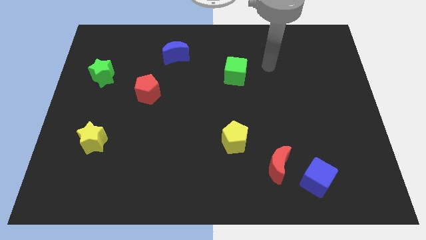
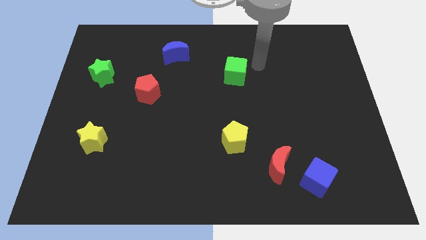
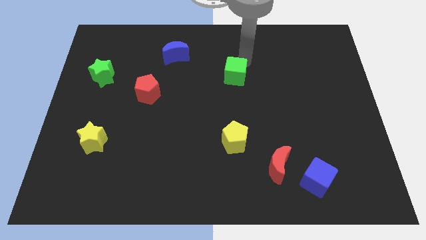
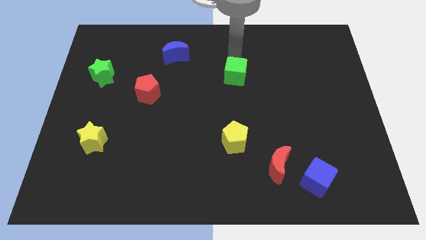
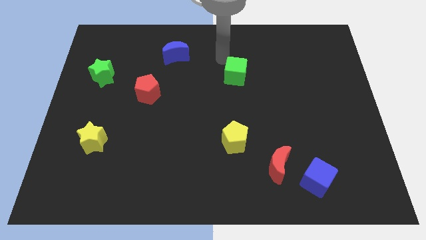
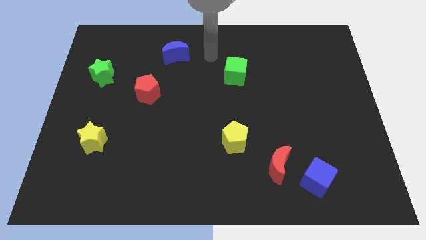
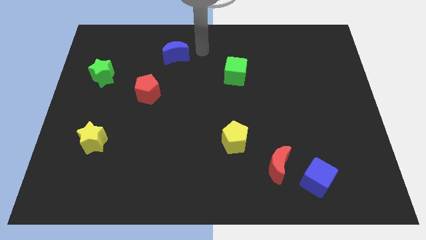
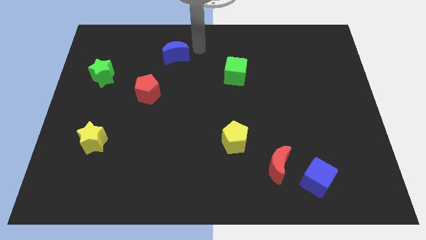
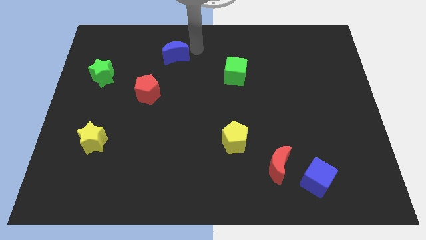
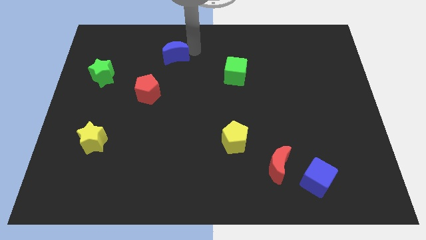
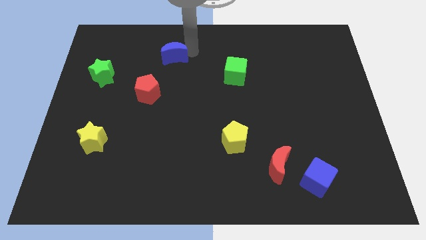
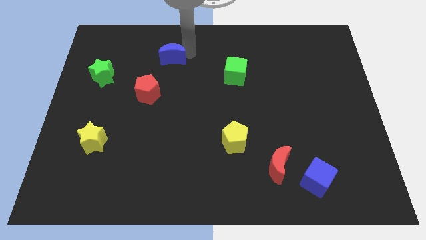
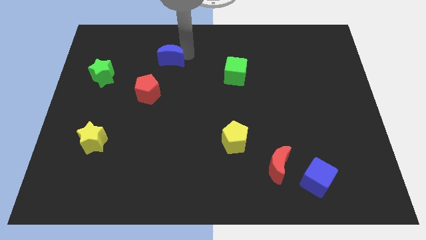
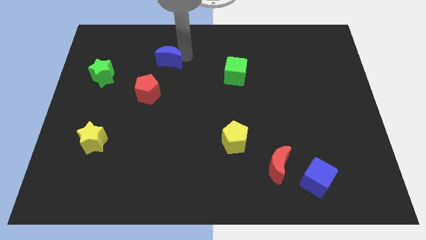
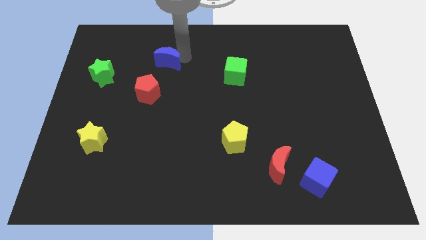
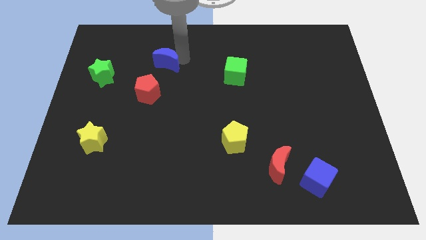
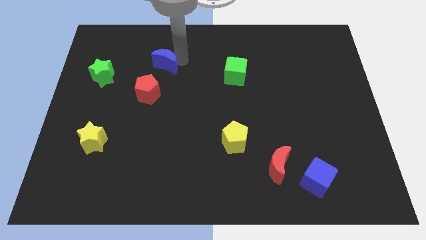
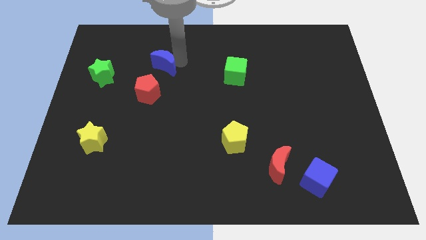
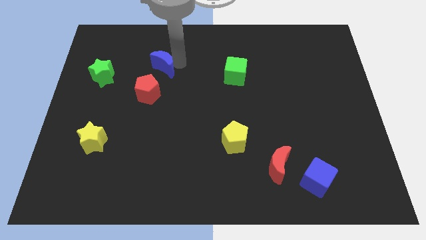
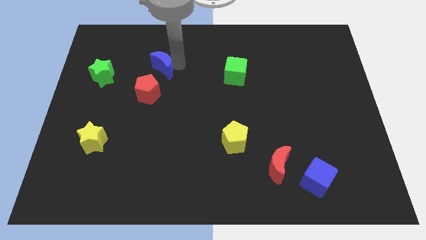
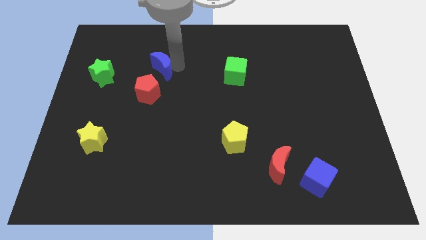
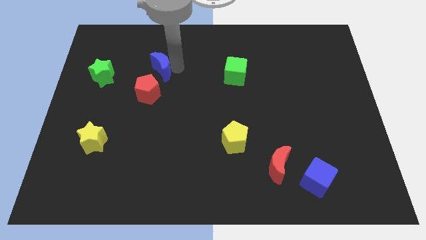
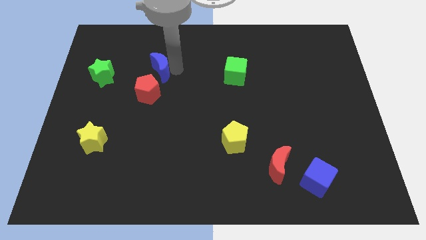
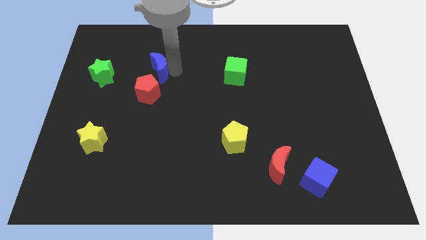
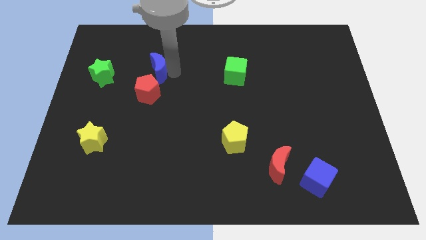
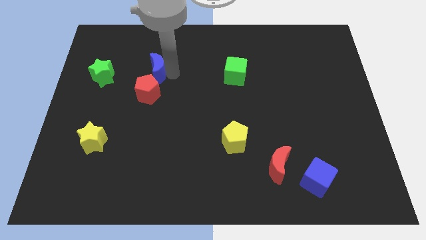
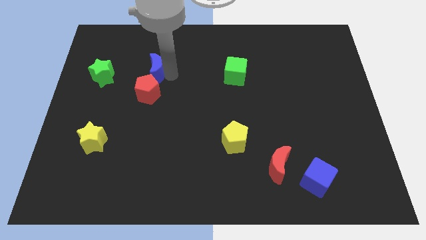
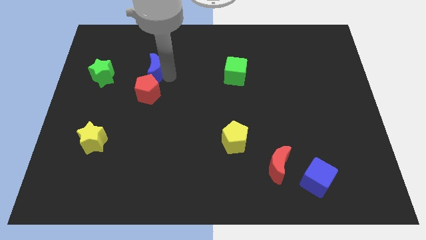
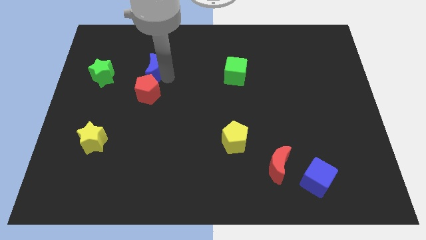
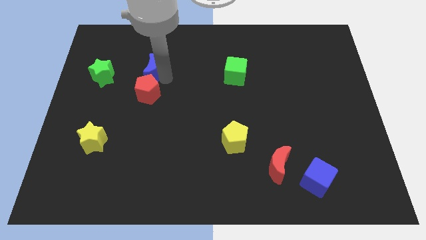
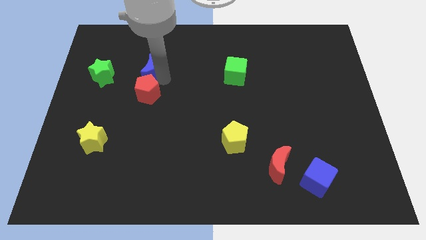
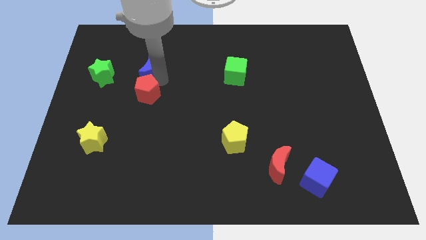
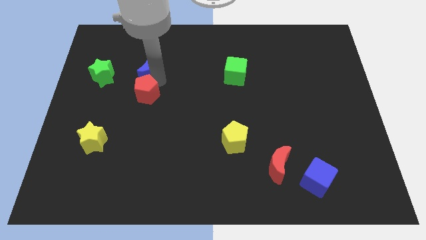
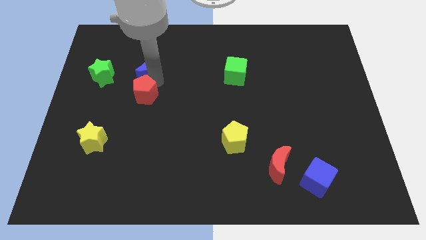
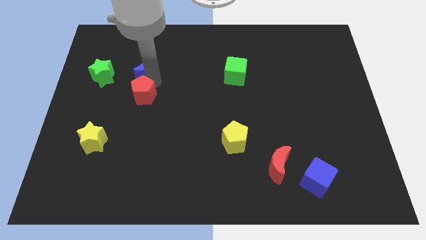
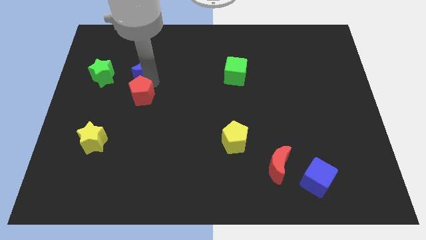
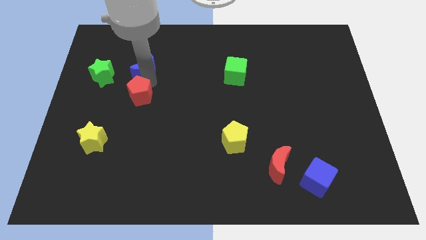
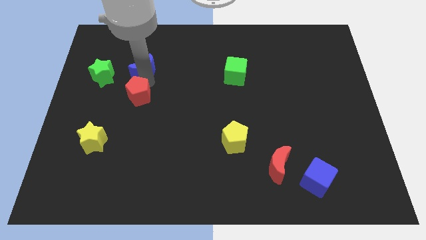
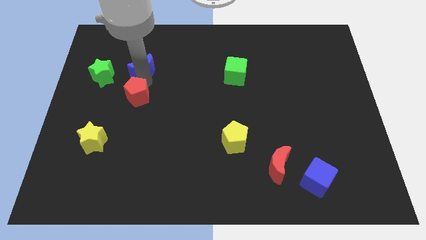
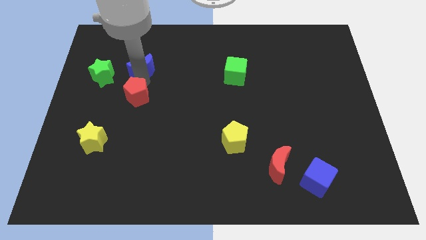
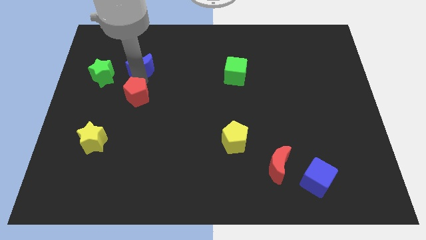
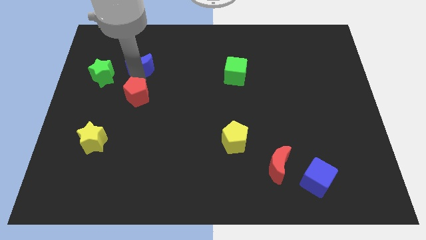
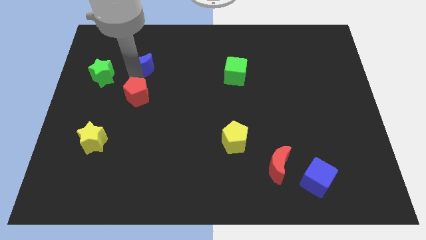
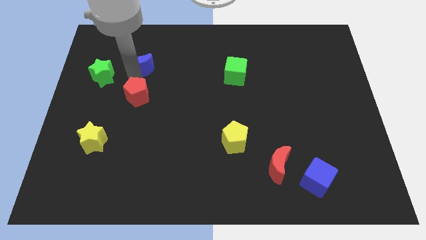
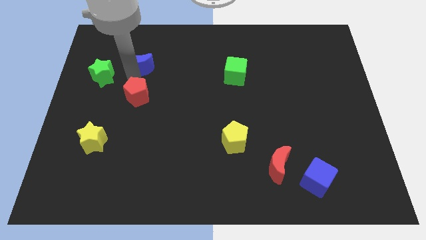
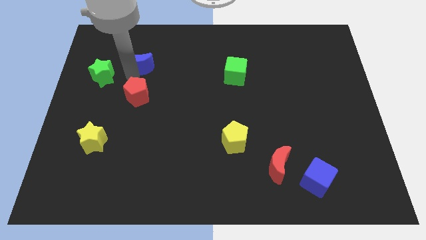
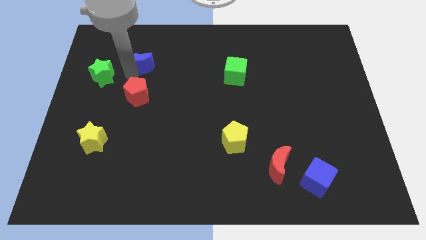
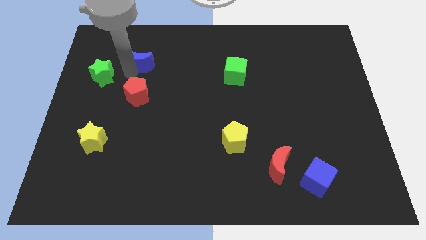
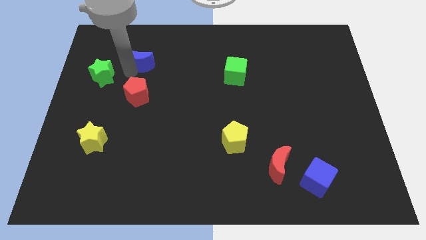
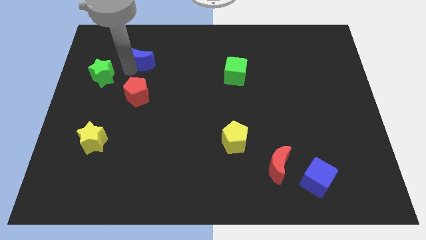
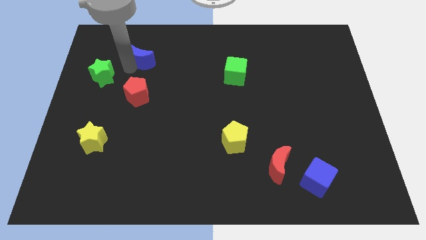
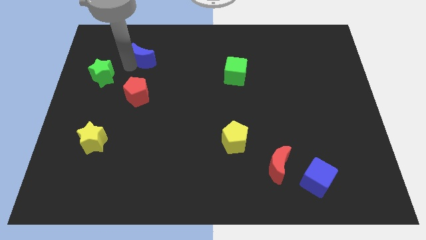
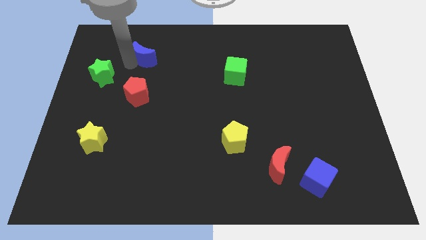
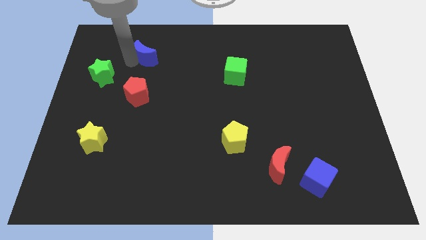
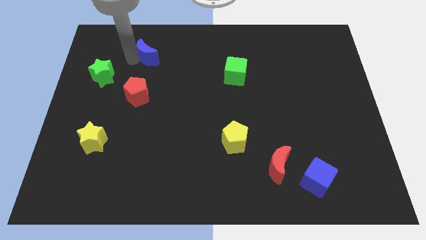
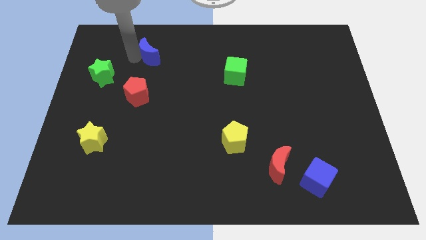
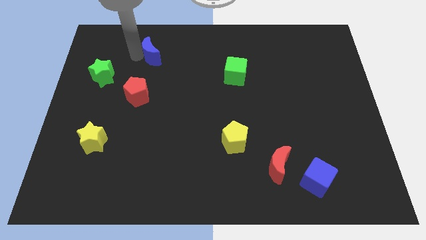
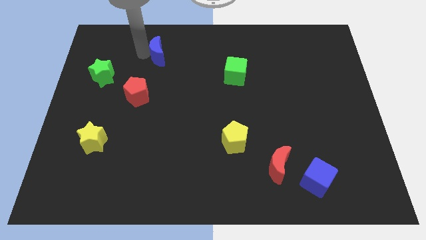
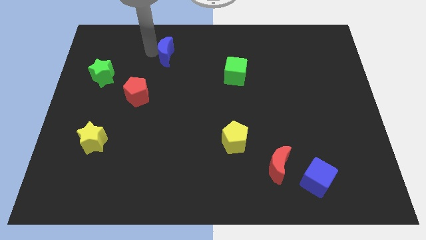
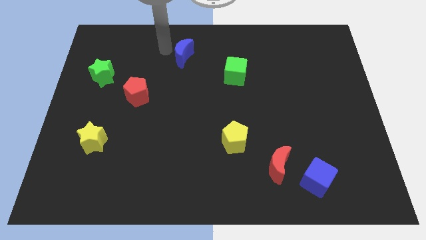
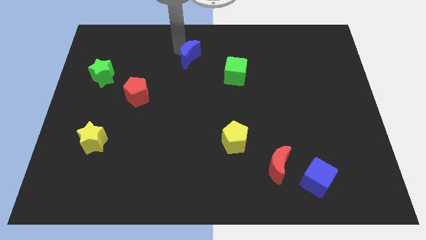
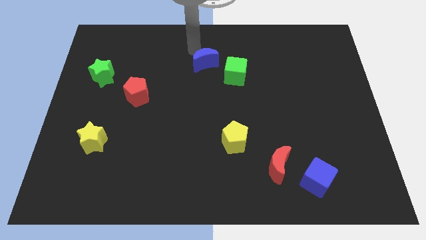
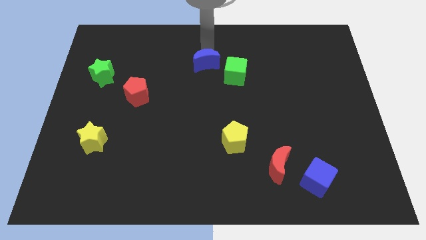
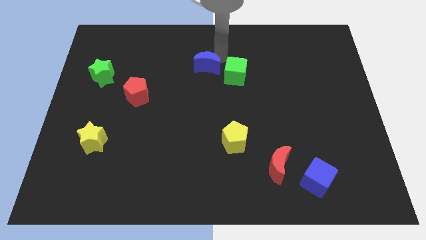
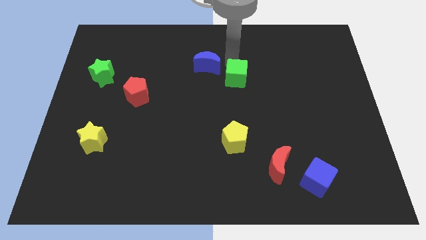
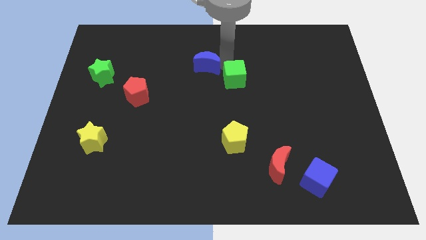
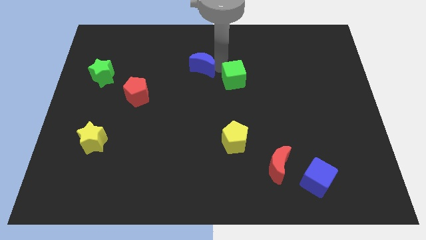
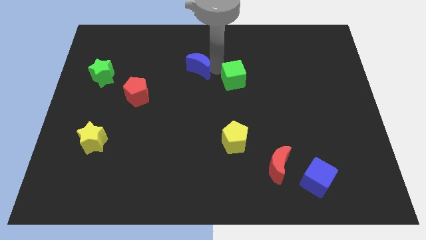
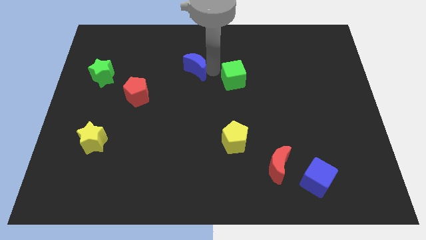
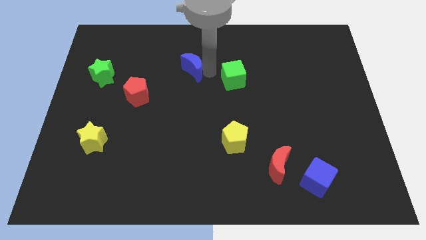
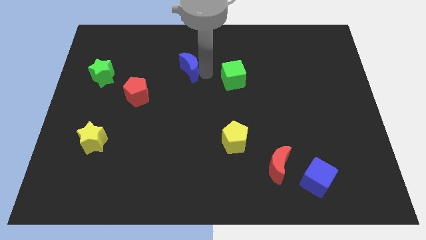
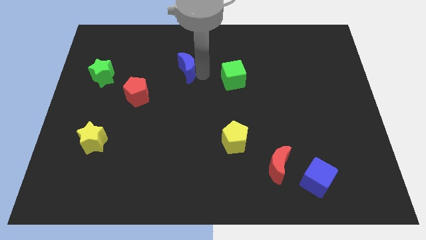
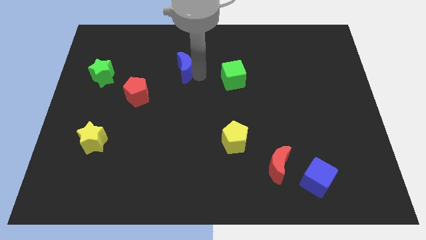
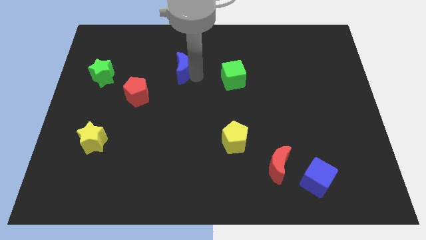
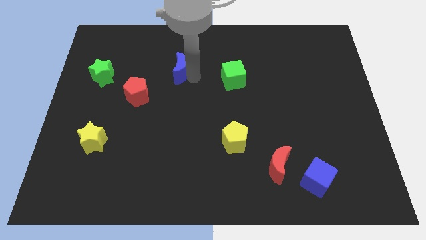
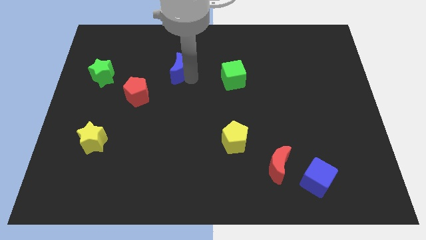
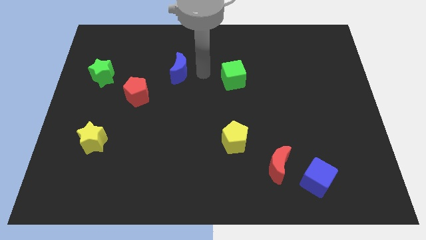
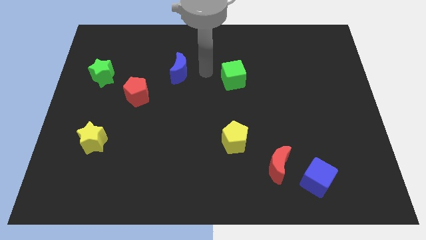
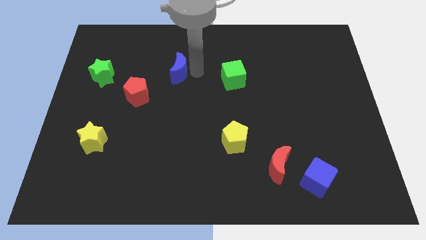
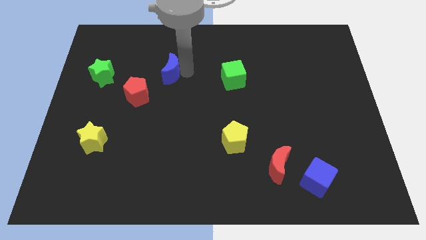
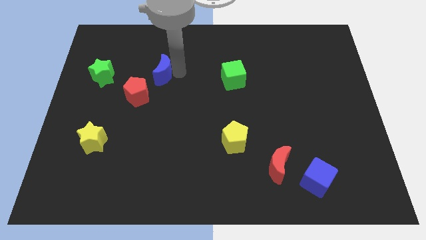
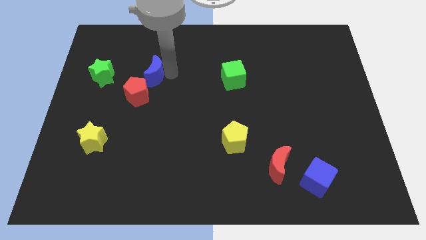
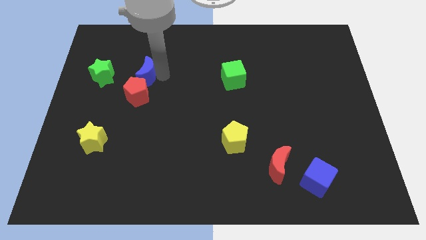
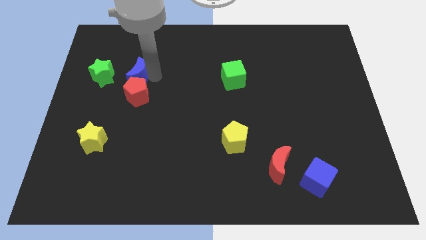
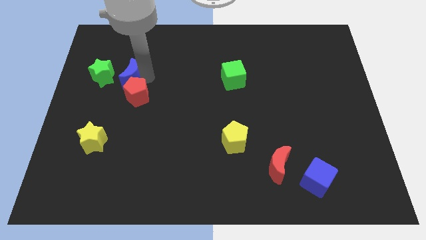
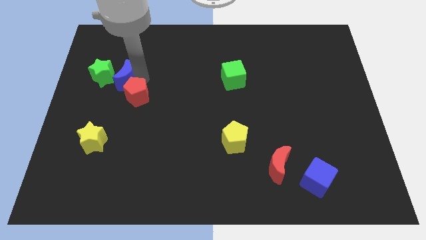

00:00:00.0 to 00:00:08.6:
move the blue moon towards the green star
